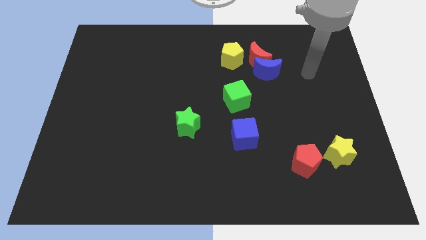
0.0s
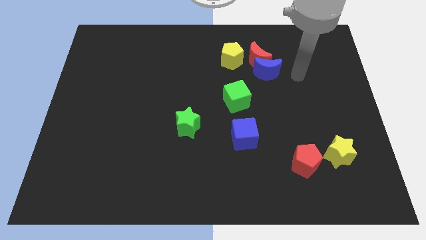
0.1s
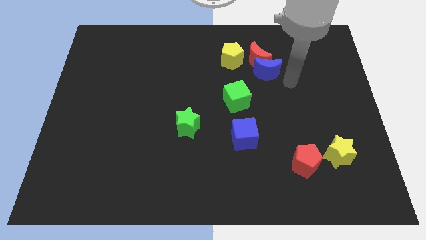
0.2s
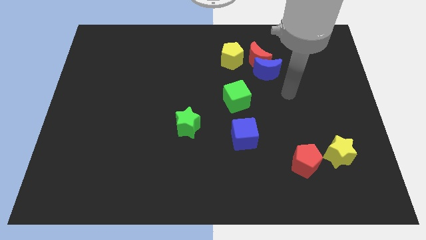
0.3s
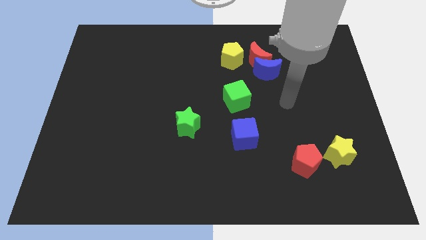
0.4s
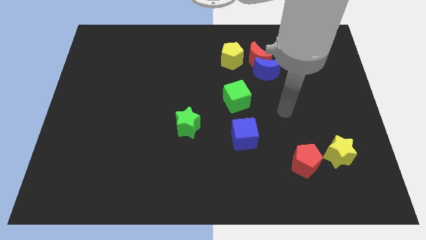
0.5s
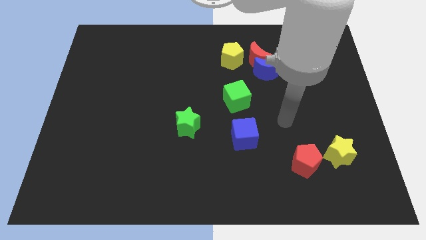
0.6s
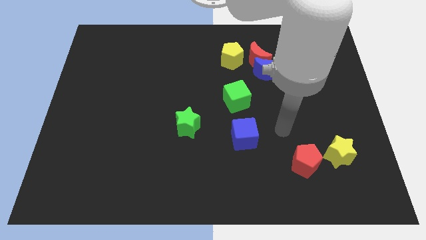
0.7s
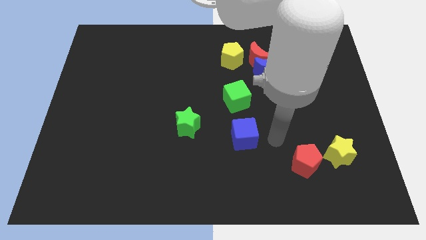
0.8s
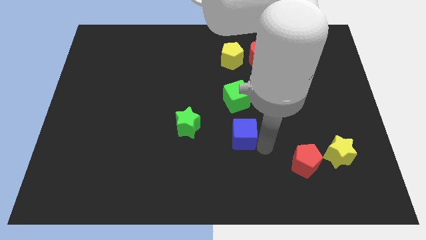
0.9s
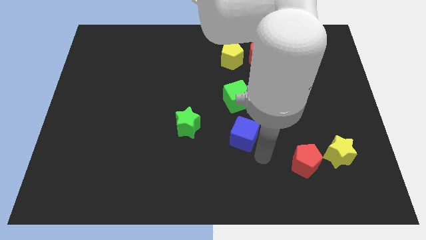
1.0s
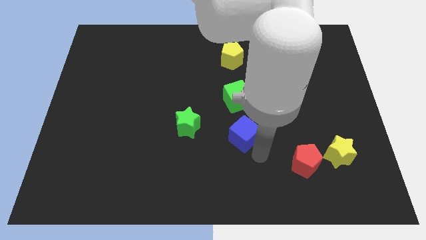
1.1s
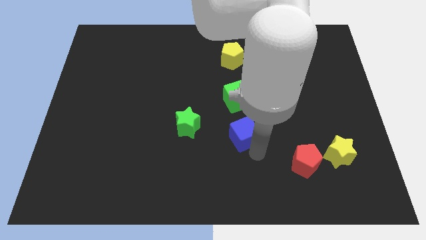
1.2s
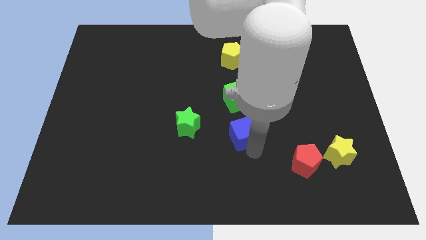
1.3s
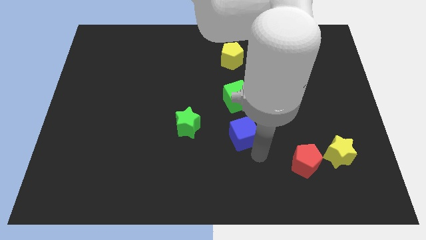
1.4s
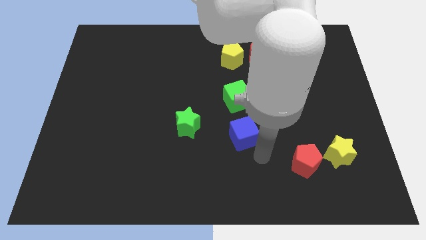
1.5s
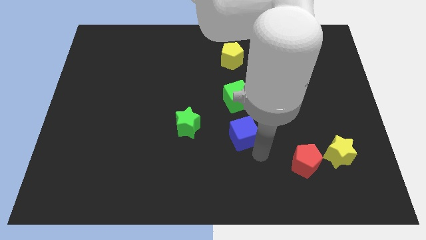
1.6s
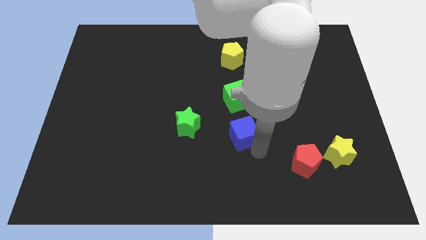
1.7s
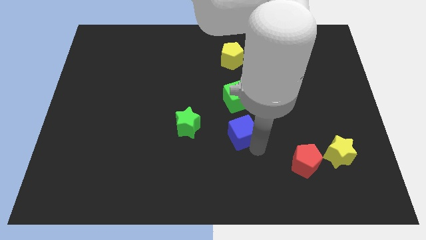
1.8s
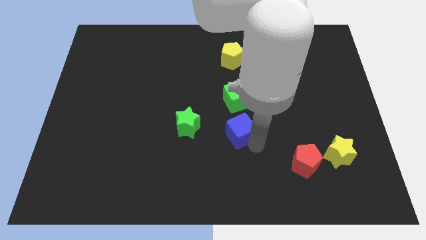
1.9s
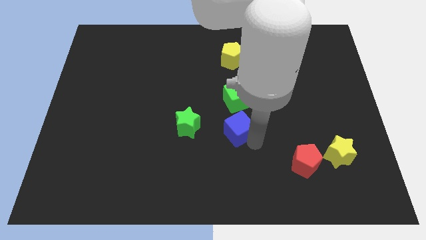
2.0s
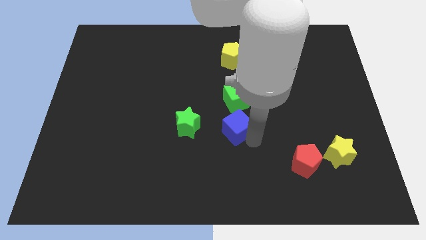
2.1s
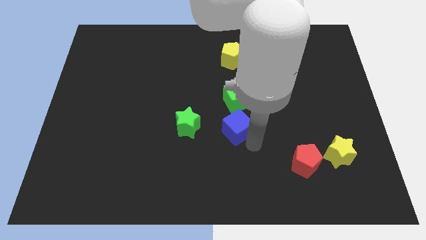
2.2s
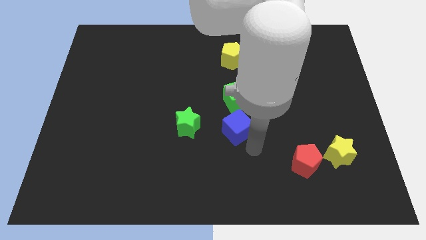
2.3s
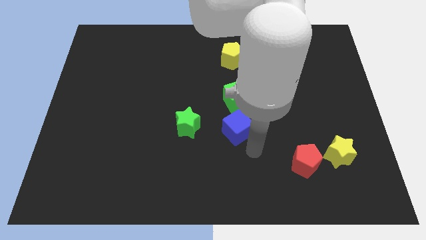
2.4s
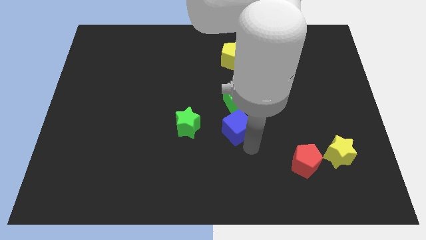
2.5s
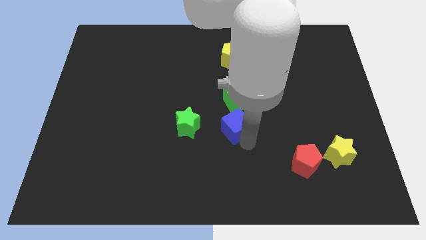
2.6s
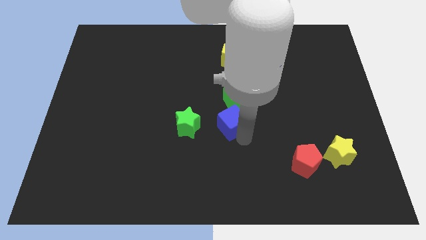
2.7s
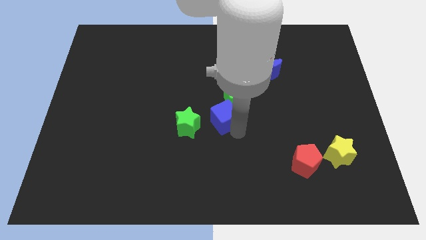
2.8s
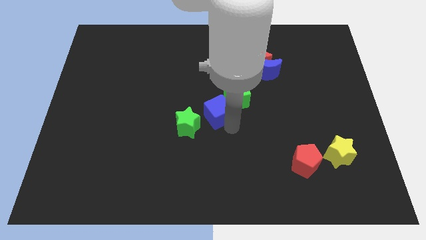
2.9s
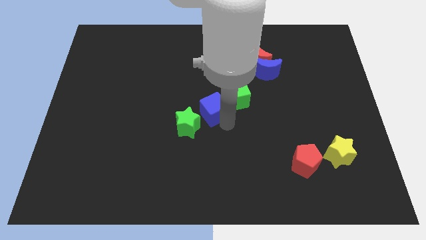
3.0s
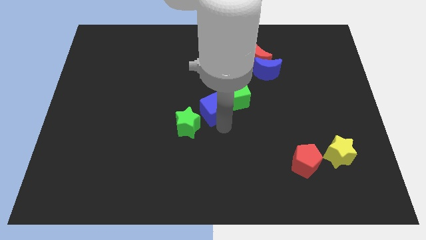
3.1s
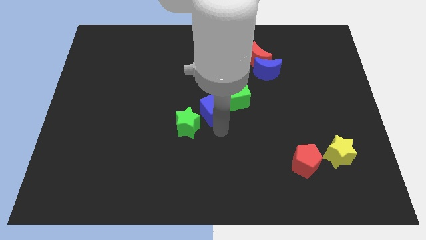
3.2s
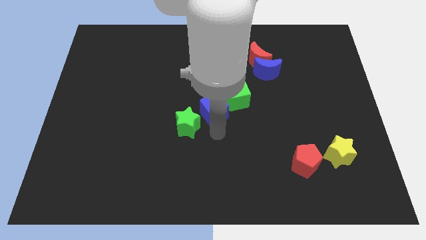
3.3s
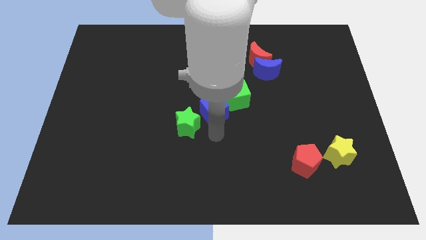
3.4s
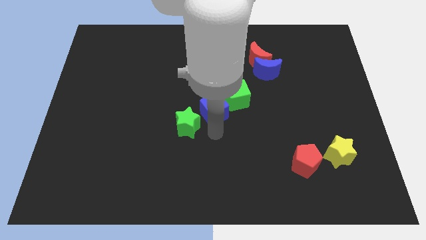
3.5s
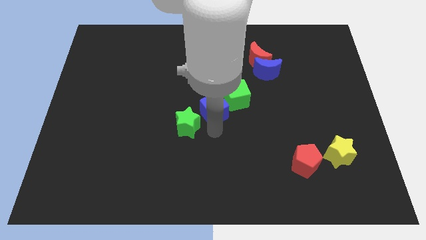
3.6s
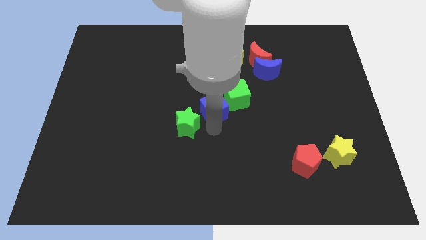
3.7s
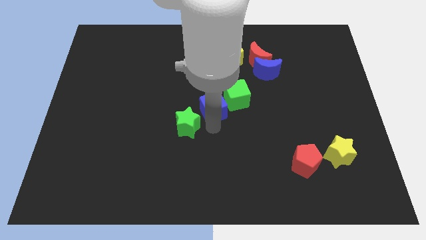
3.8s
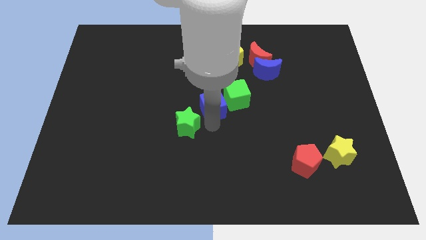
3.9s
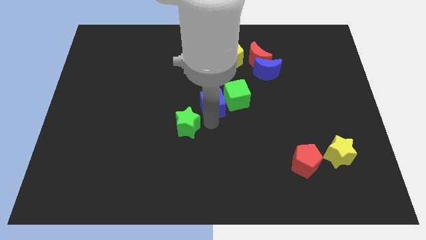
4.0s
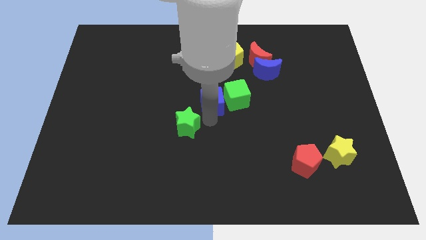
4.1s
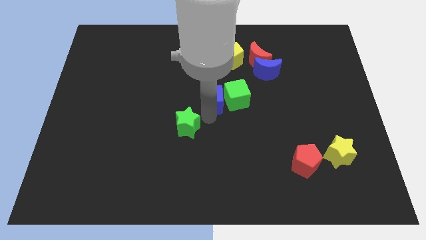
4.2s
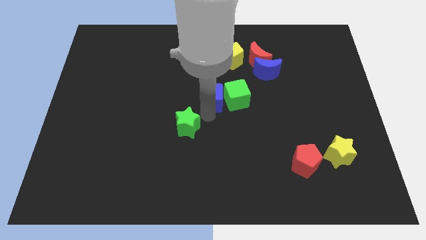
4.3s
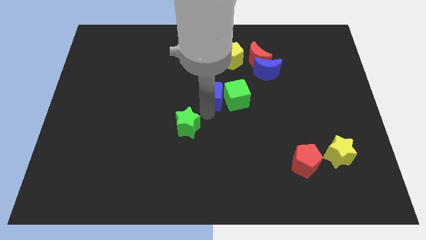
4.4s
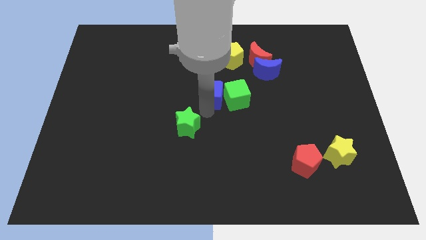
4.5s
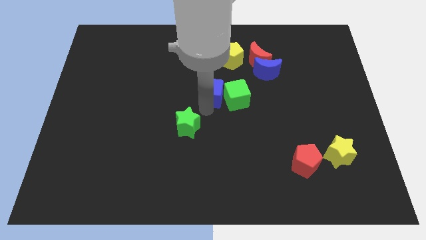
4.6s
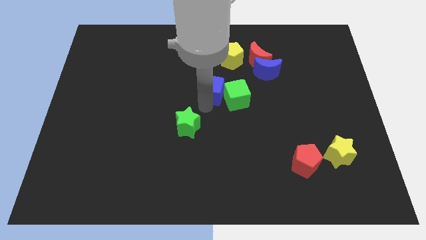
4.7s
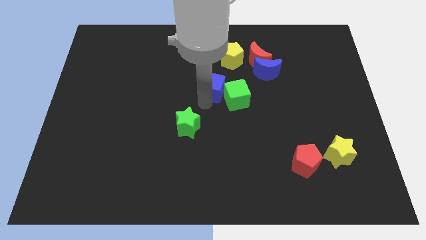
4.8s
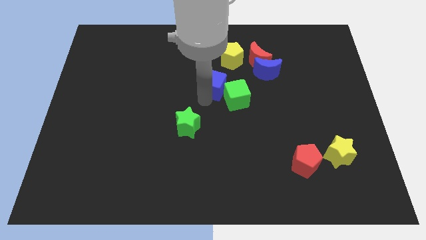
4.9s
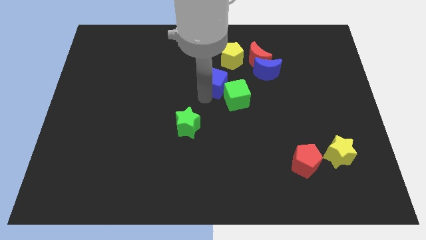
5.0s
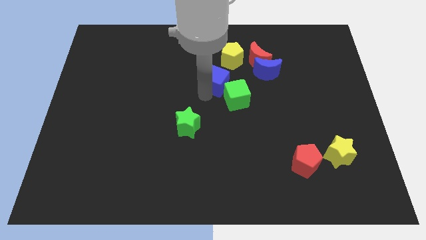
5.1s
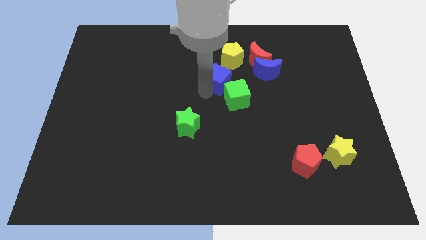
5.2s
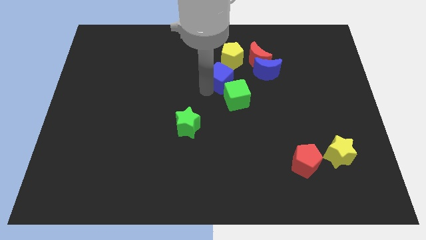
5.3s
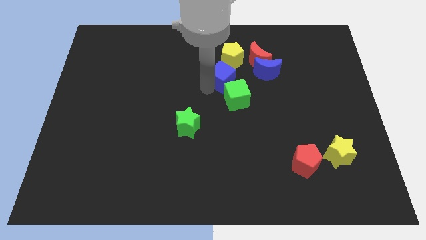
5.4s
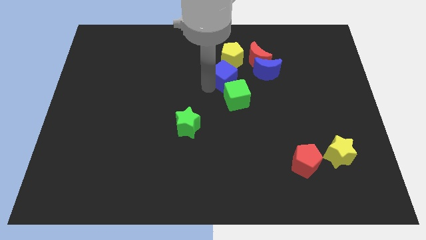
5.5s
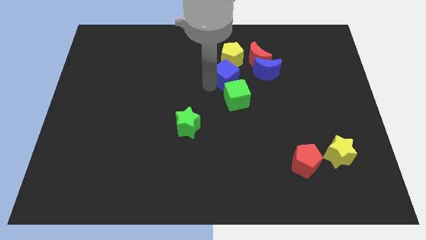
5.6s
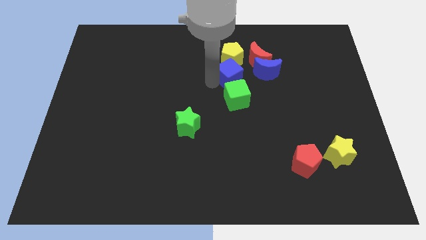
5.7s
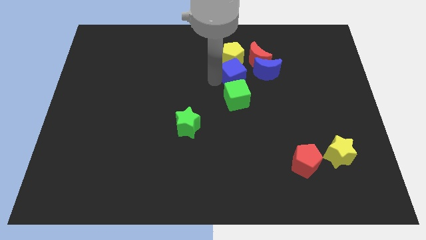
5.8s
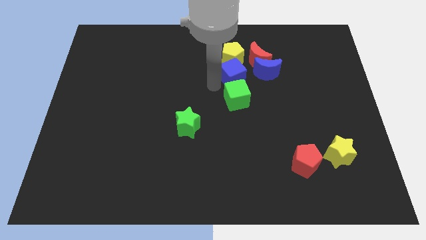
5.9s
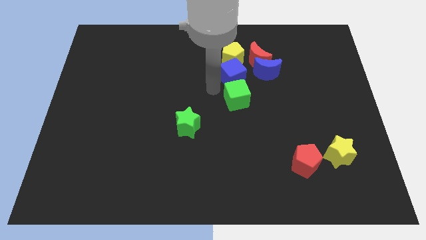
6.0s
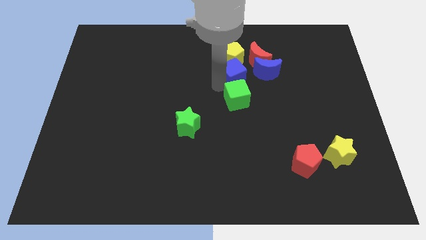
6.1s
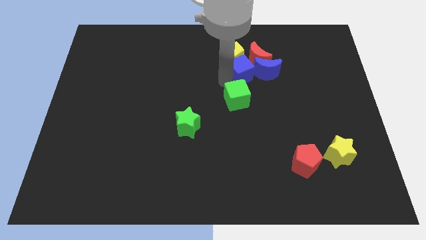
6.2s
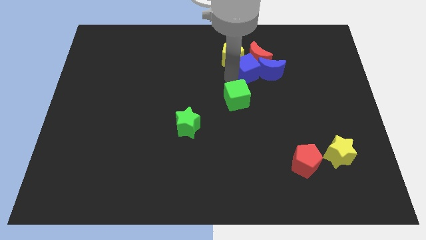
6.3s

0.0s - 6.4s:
slide the blue cube to the red moon

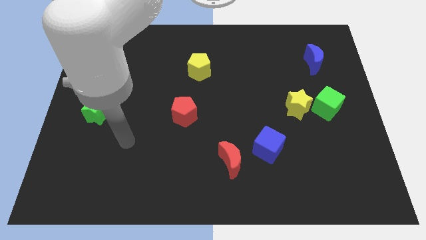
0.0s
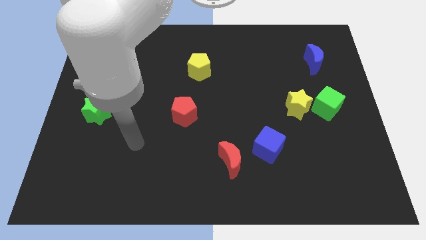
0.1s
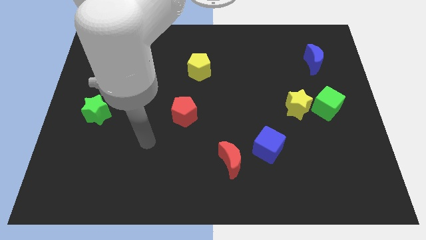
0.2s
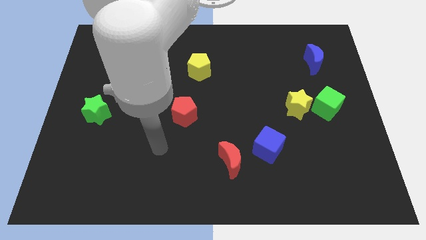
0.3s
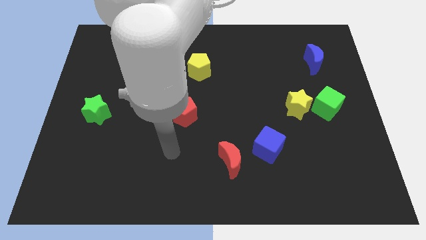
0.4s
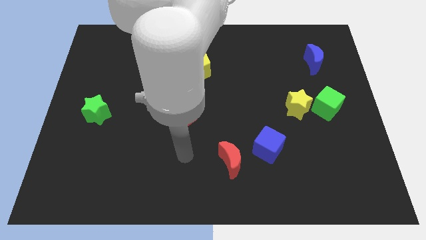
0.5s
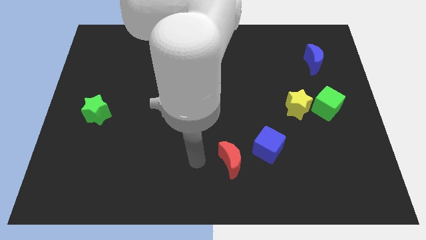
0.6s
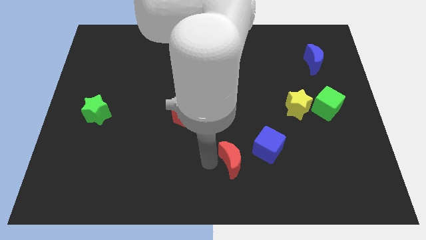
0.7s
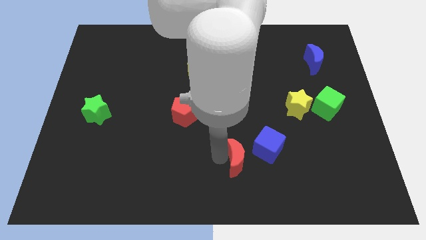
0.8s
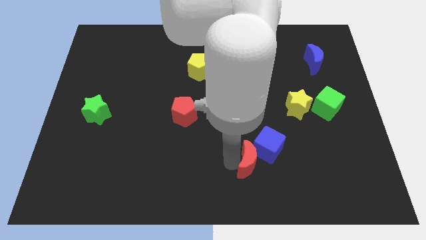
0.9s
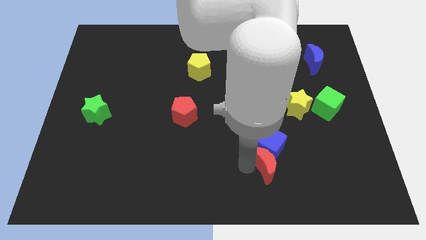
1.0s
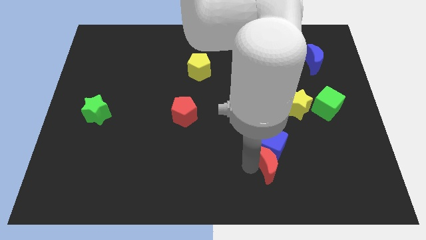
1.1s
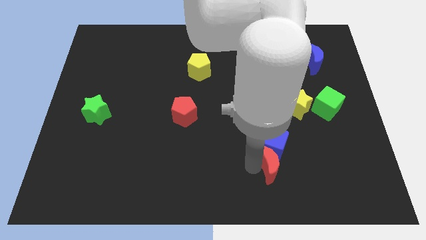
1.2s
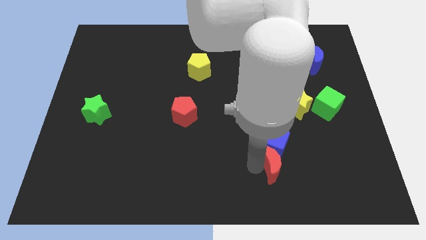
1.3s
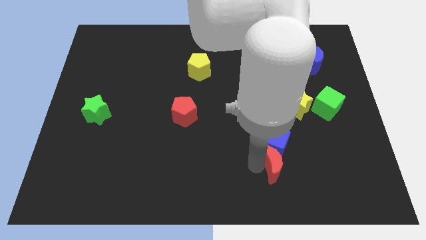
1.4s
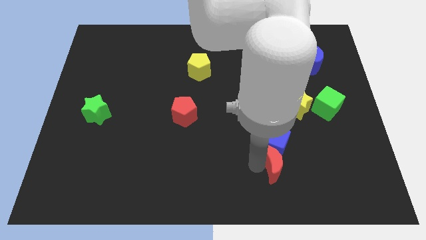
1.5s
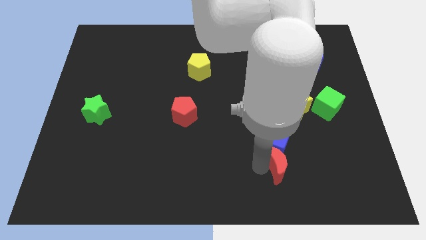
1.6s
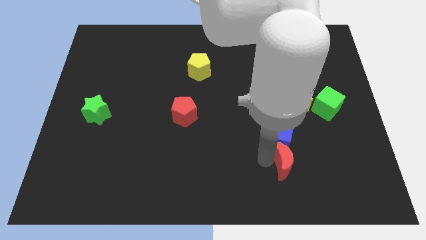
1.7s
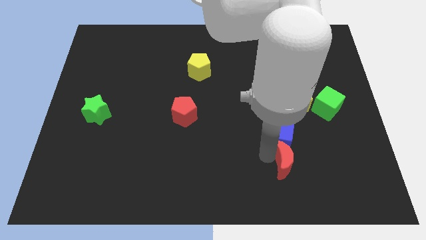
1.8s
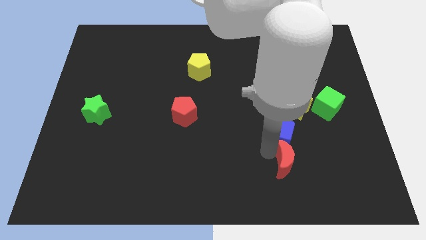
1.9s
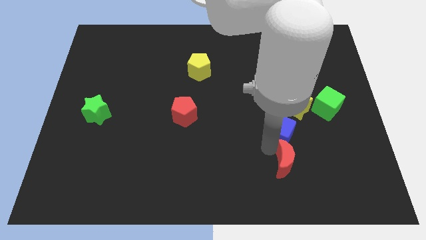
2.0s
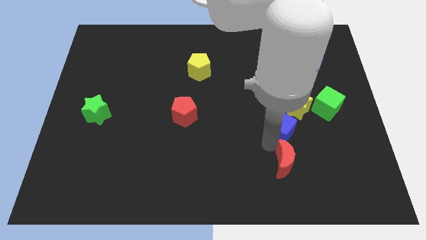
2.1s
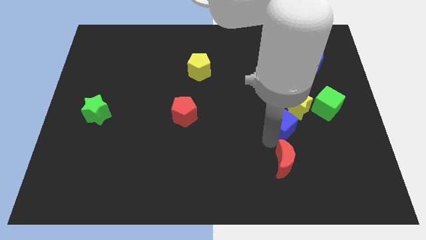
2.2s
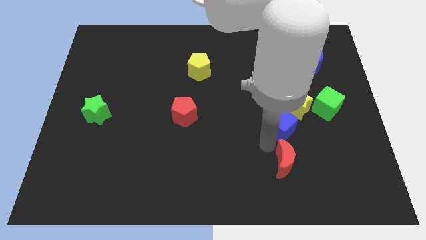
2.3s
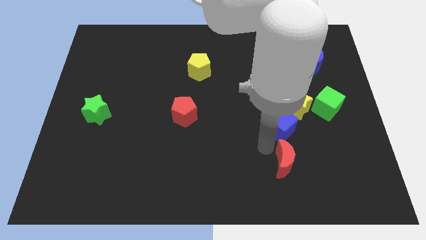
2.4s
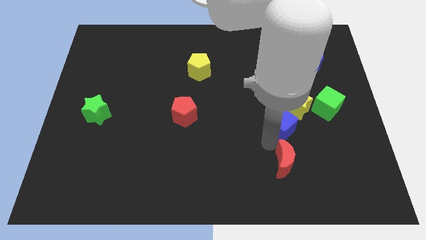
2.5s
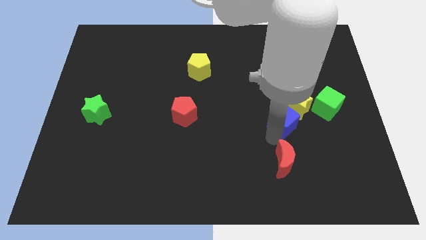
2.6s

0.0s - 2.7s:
move the blue cube close to the yellow star
